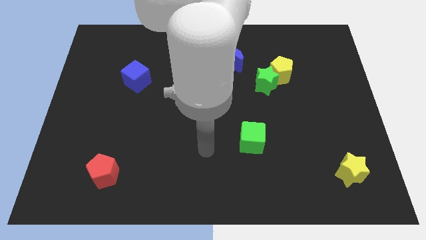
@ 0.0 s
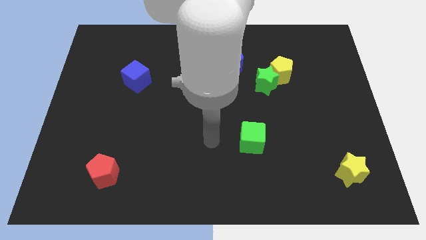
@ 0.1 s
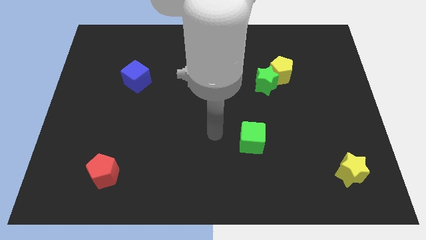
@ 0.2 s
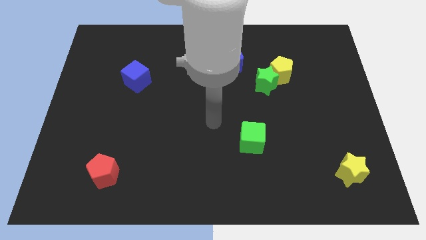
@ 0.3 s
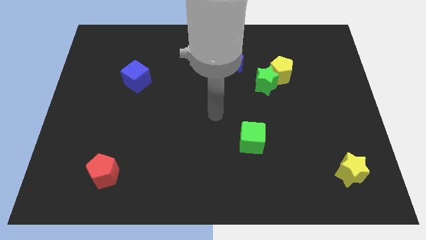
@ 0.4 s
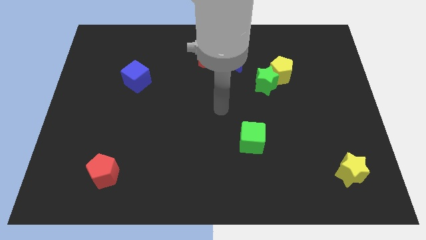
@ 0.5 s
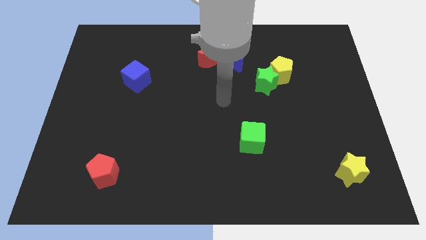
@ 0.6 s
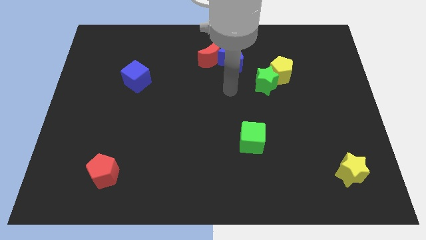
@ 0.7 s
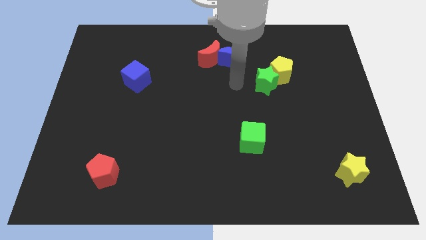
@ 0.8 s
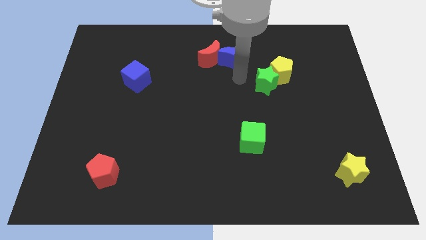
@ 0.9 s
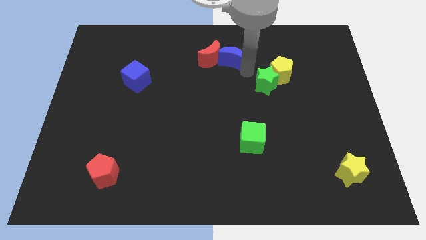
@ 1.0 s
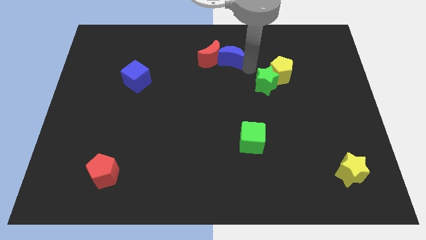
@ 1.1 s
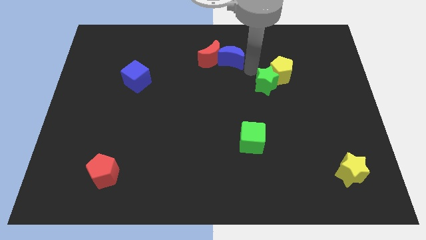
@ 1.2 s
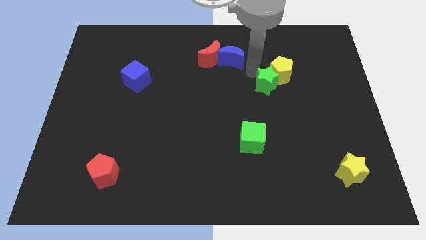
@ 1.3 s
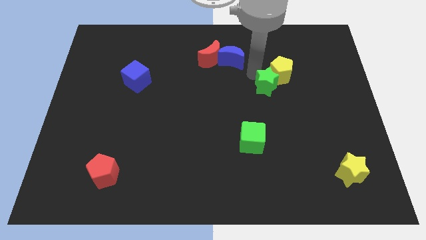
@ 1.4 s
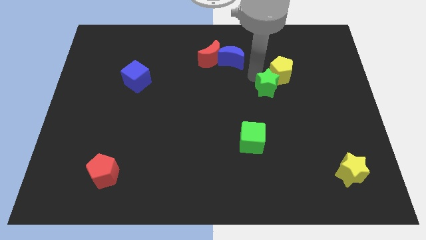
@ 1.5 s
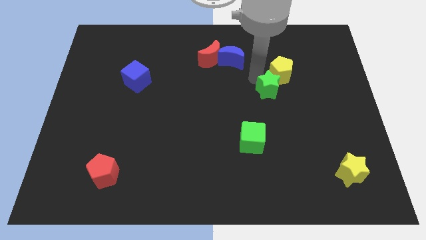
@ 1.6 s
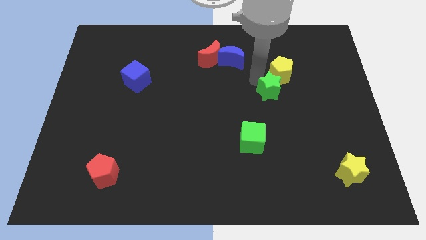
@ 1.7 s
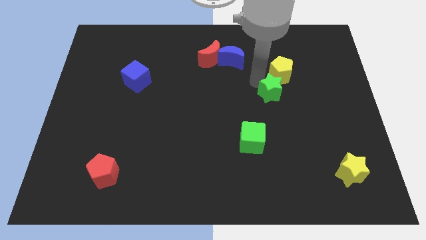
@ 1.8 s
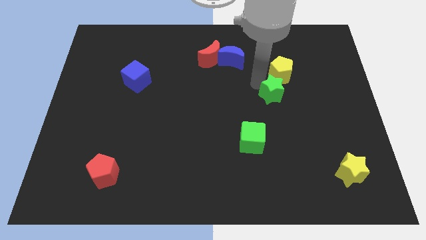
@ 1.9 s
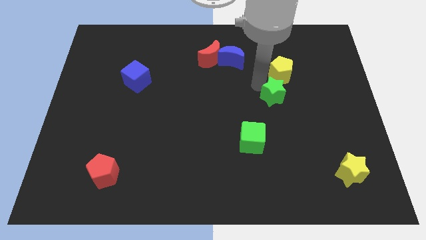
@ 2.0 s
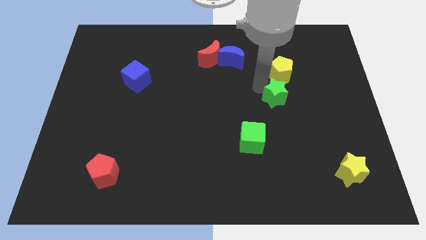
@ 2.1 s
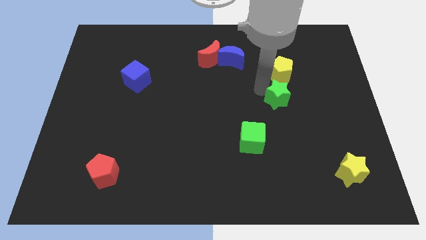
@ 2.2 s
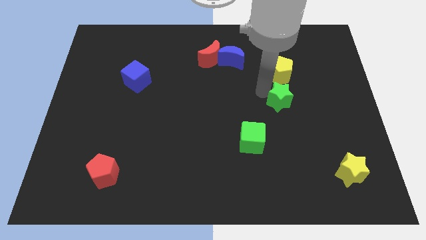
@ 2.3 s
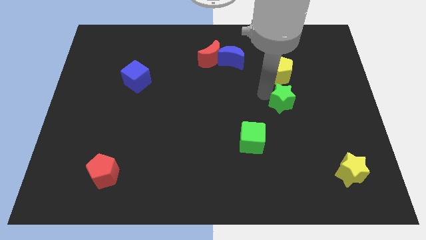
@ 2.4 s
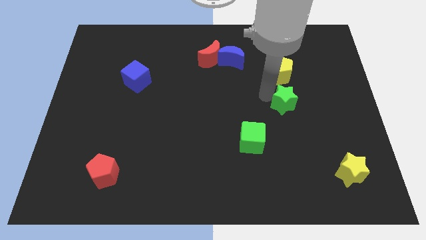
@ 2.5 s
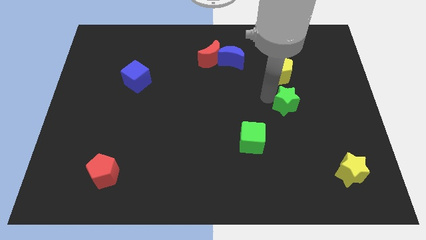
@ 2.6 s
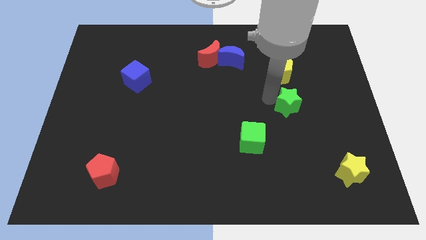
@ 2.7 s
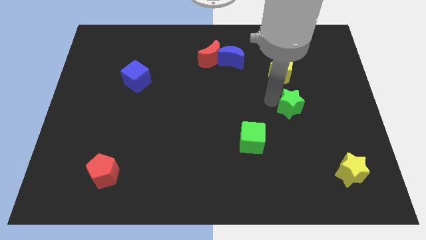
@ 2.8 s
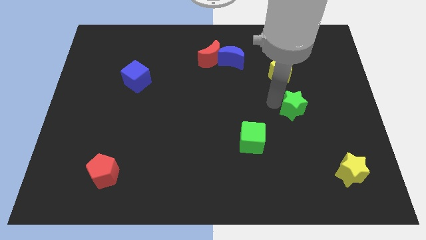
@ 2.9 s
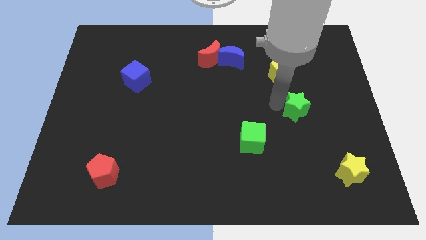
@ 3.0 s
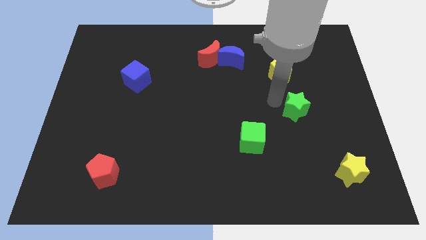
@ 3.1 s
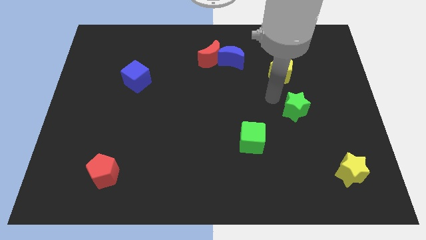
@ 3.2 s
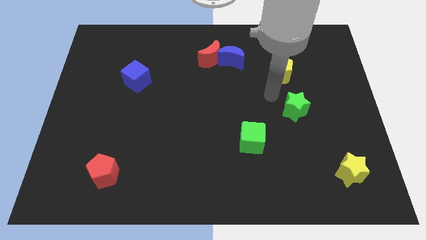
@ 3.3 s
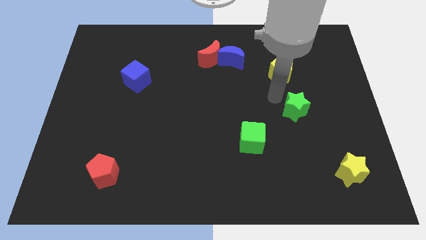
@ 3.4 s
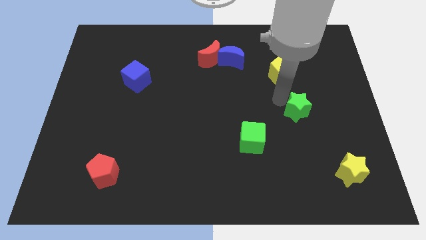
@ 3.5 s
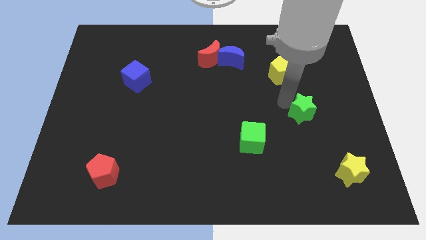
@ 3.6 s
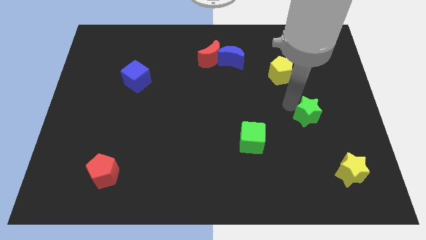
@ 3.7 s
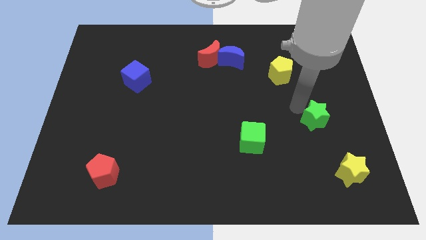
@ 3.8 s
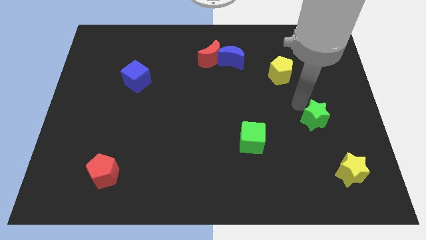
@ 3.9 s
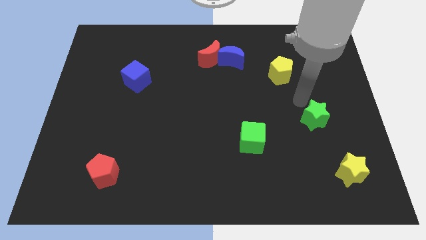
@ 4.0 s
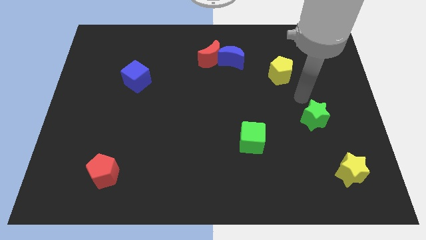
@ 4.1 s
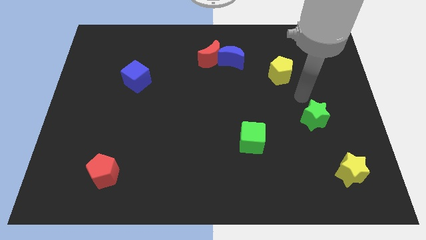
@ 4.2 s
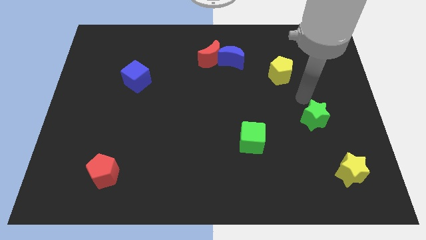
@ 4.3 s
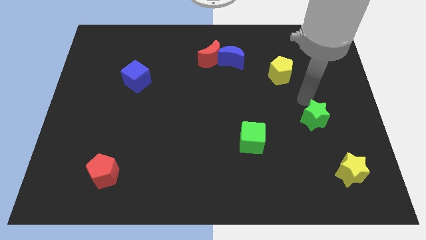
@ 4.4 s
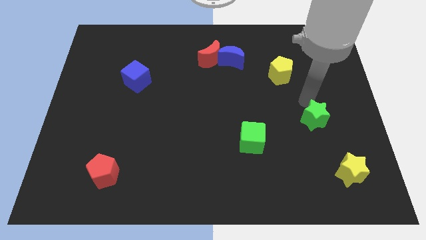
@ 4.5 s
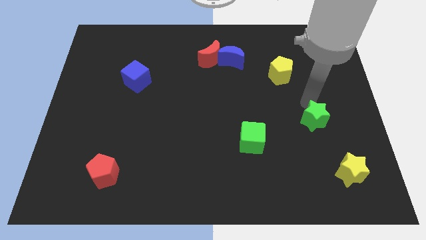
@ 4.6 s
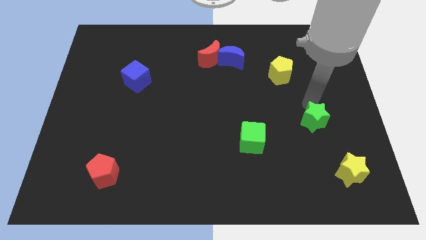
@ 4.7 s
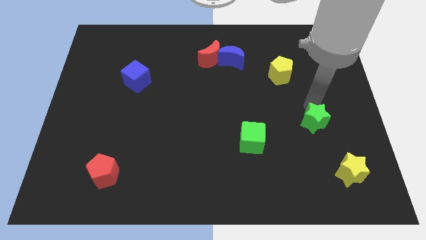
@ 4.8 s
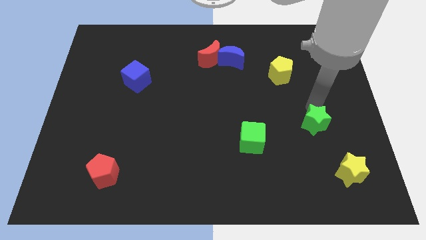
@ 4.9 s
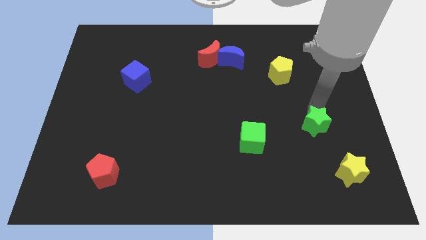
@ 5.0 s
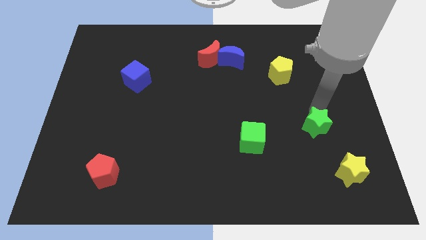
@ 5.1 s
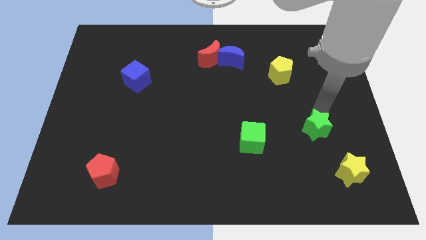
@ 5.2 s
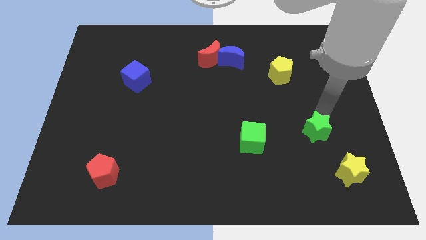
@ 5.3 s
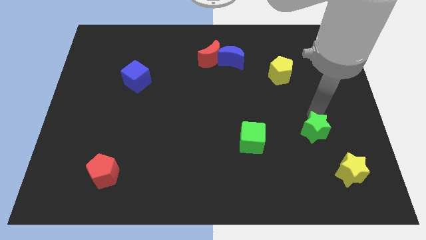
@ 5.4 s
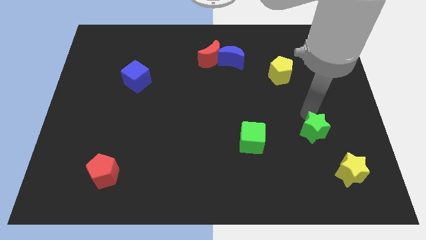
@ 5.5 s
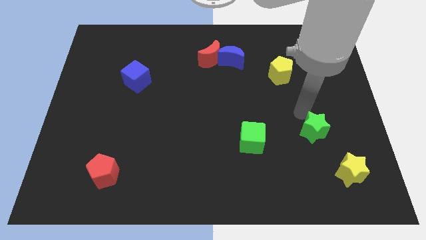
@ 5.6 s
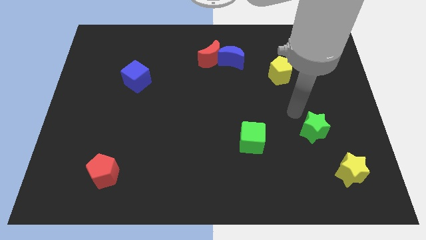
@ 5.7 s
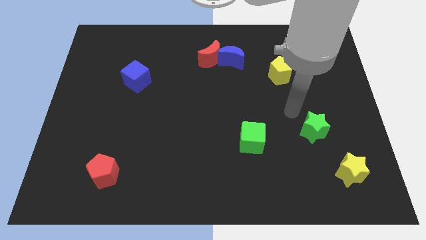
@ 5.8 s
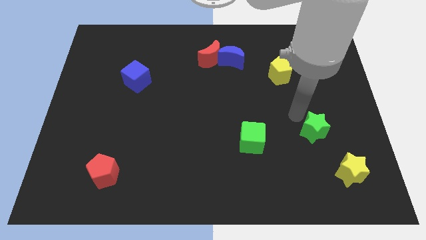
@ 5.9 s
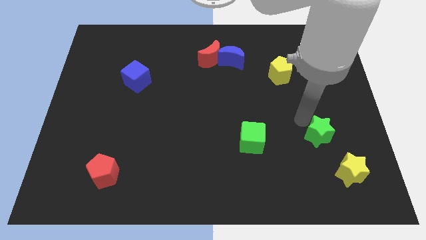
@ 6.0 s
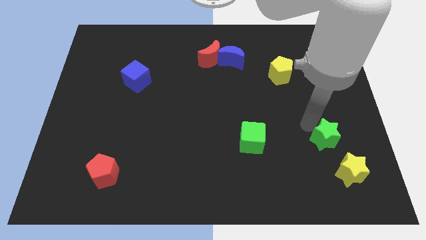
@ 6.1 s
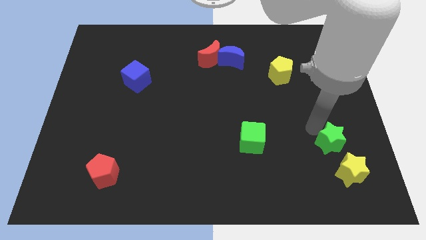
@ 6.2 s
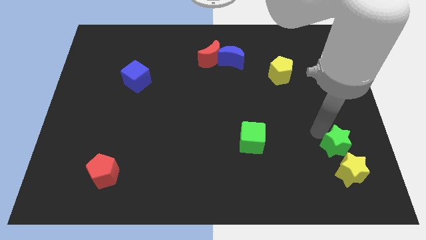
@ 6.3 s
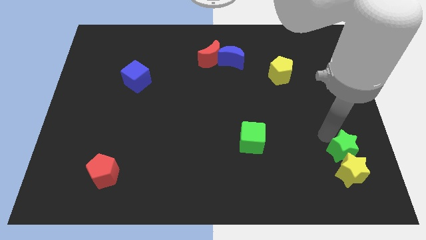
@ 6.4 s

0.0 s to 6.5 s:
slide the green star to the yellow star

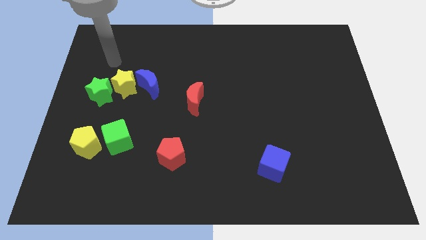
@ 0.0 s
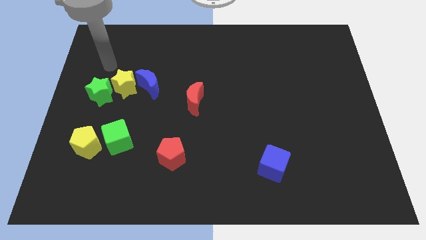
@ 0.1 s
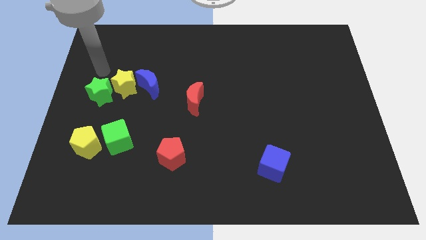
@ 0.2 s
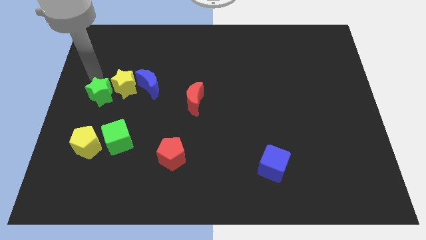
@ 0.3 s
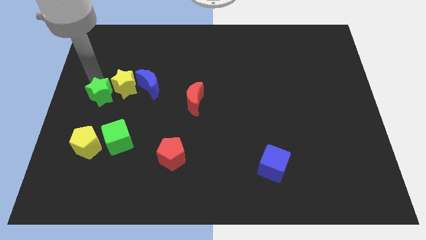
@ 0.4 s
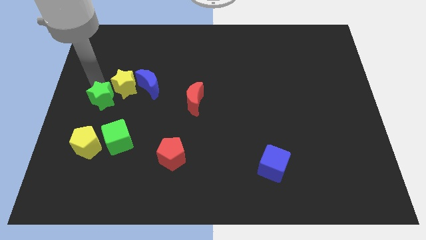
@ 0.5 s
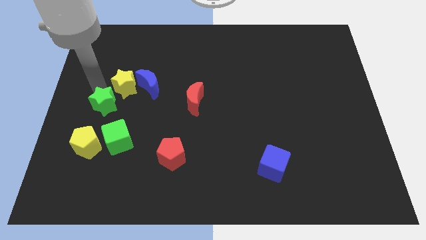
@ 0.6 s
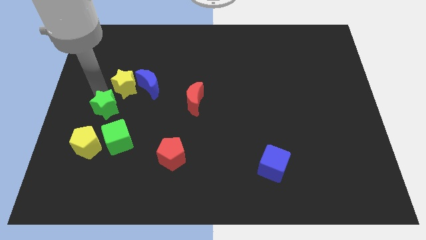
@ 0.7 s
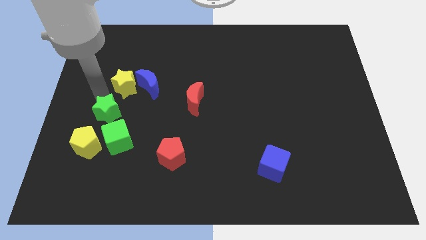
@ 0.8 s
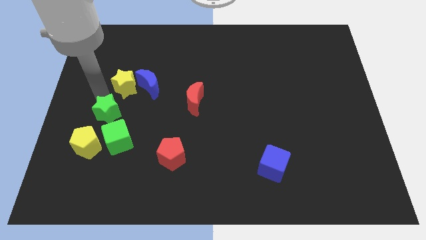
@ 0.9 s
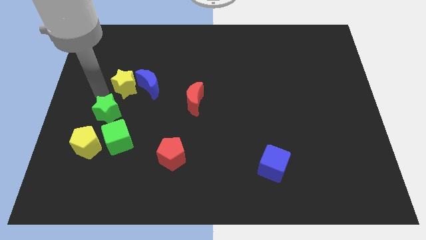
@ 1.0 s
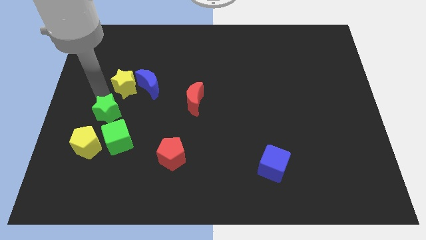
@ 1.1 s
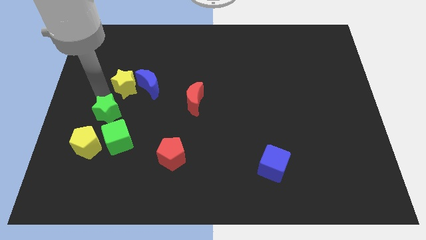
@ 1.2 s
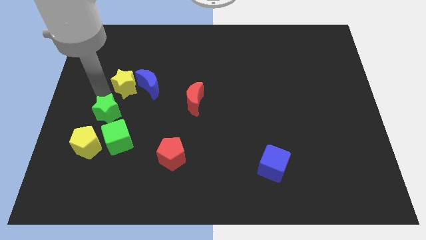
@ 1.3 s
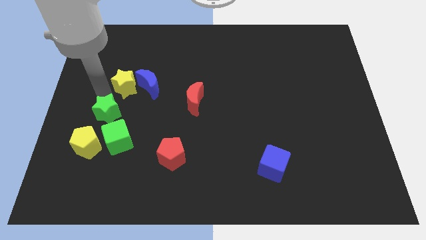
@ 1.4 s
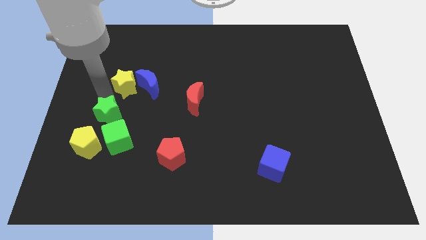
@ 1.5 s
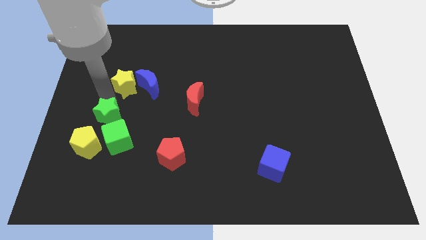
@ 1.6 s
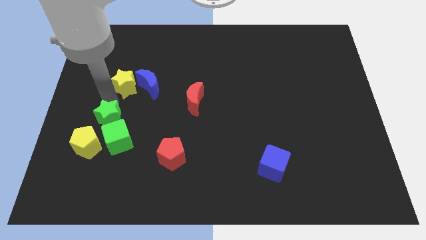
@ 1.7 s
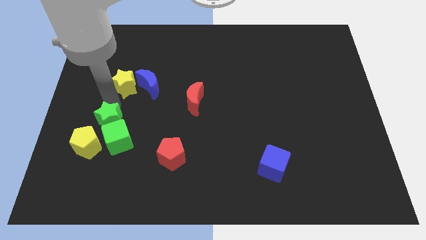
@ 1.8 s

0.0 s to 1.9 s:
push the green star next to the green cube
